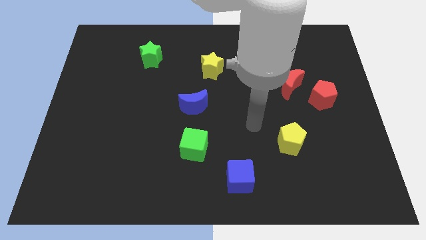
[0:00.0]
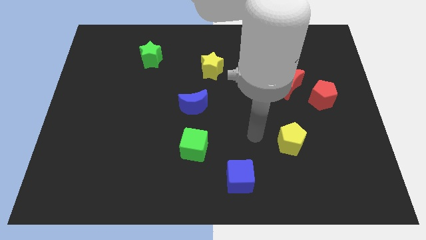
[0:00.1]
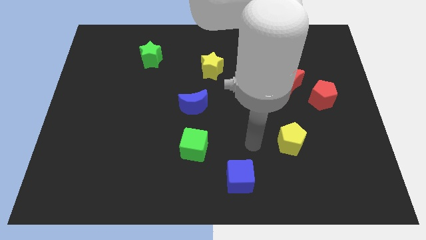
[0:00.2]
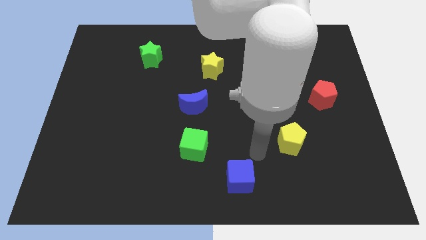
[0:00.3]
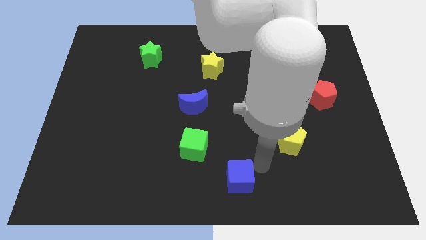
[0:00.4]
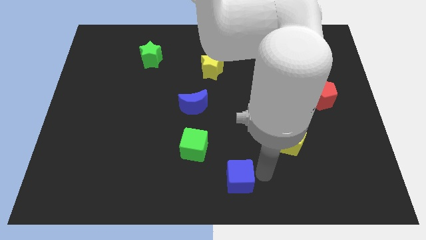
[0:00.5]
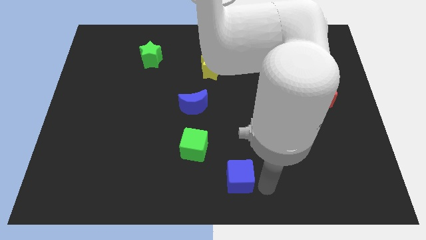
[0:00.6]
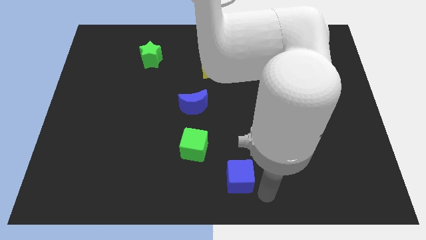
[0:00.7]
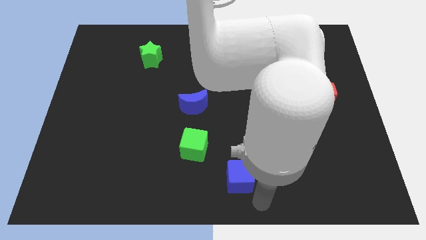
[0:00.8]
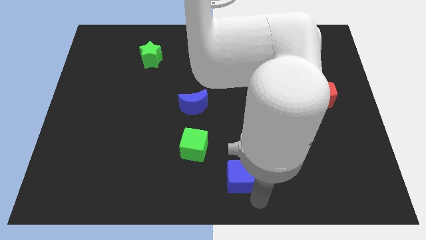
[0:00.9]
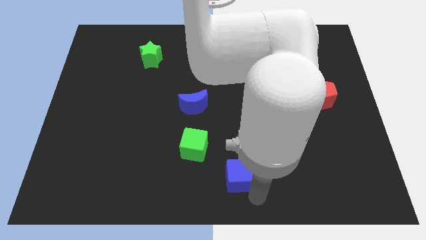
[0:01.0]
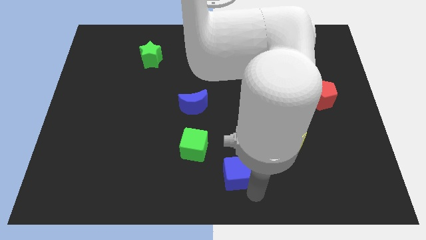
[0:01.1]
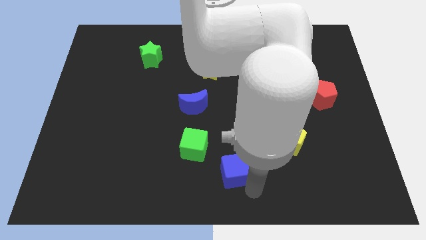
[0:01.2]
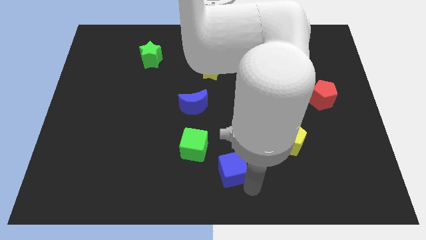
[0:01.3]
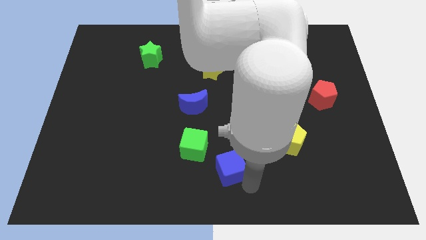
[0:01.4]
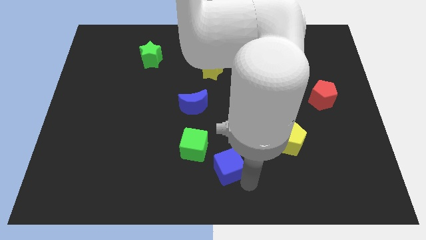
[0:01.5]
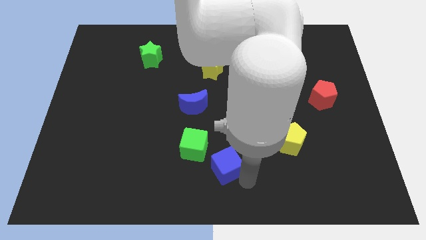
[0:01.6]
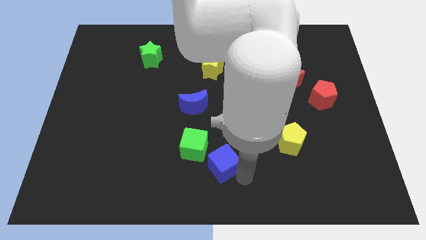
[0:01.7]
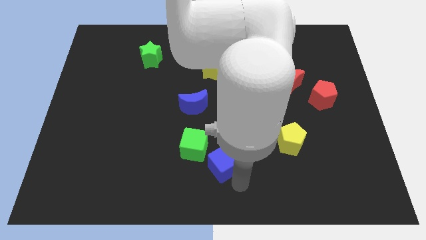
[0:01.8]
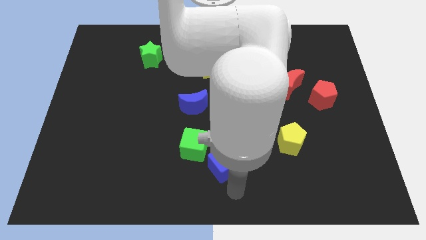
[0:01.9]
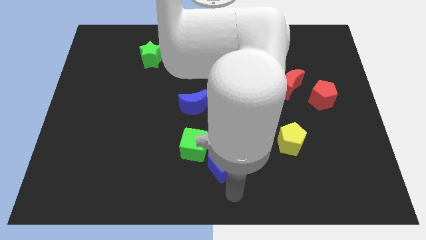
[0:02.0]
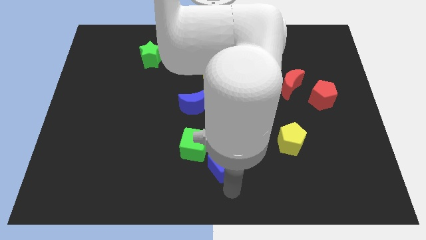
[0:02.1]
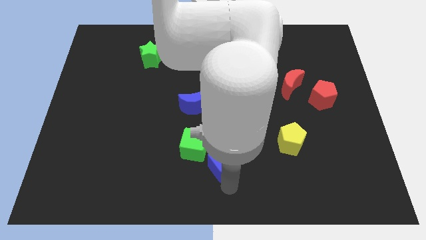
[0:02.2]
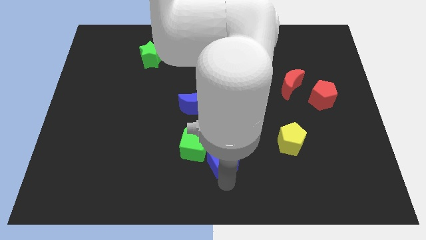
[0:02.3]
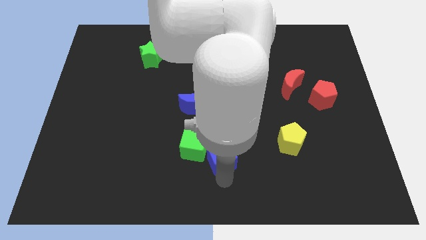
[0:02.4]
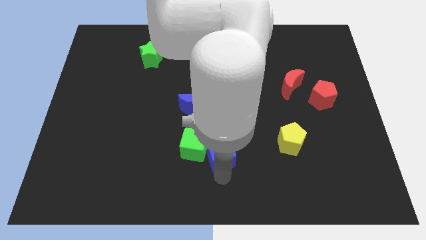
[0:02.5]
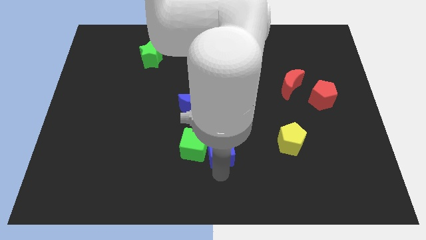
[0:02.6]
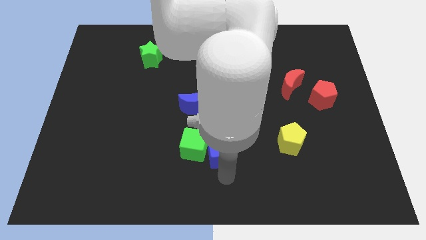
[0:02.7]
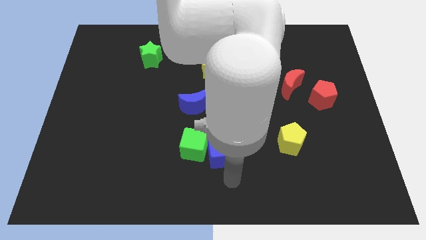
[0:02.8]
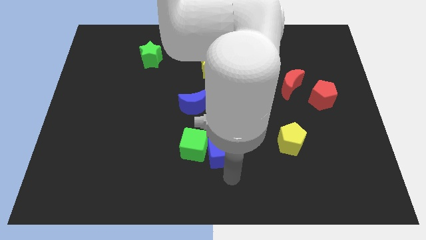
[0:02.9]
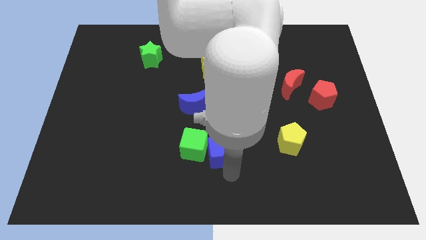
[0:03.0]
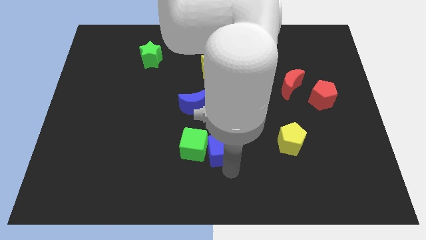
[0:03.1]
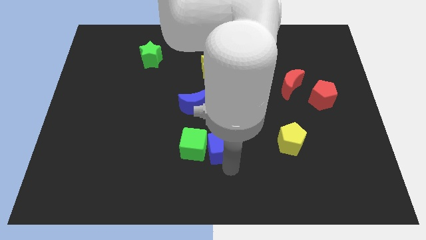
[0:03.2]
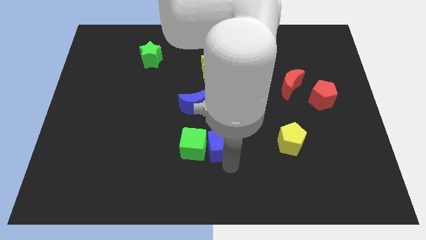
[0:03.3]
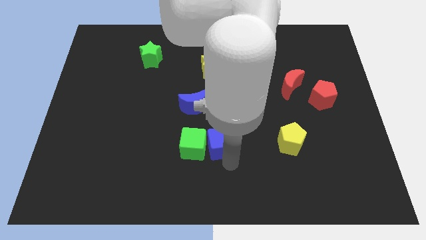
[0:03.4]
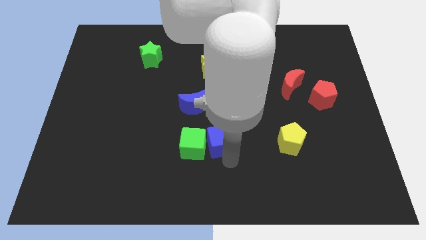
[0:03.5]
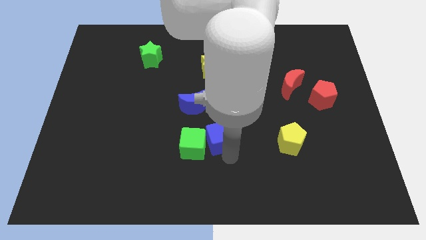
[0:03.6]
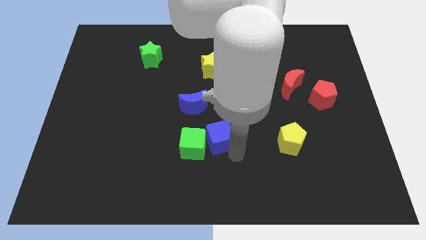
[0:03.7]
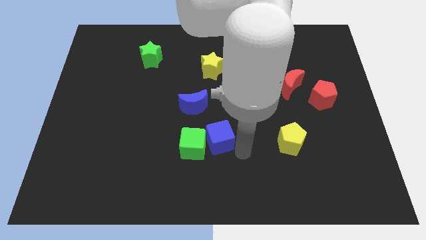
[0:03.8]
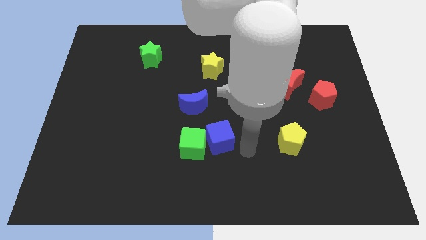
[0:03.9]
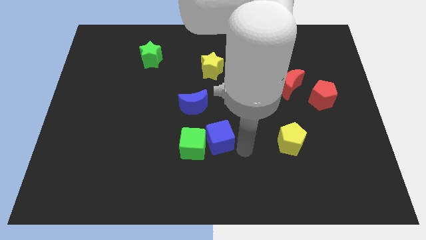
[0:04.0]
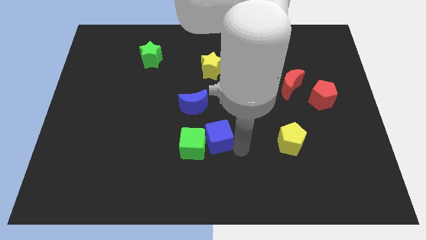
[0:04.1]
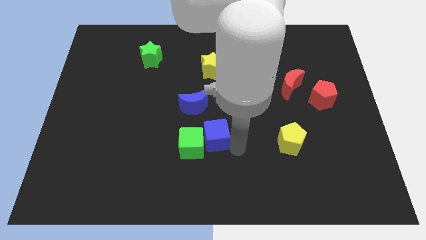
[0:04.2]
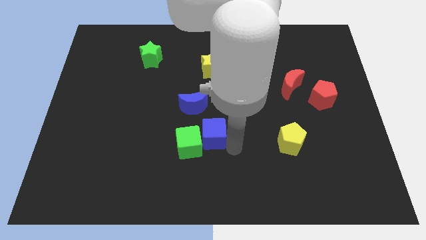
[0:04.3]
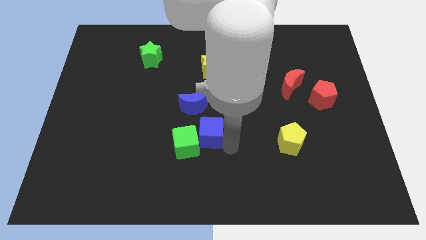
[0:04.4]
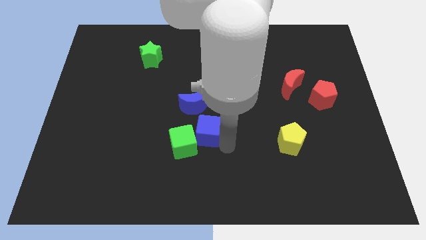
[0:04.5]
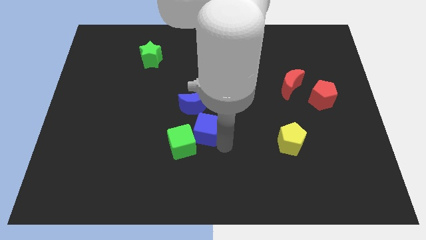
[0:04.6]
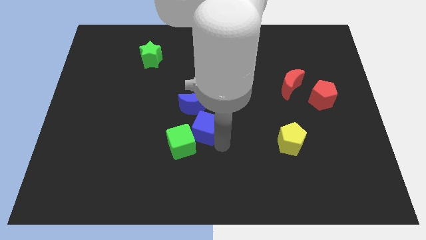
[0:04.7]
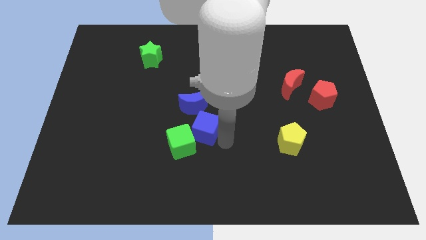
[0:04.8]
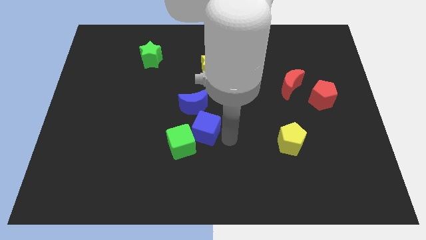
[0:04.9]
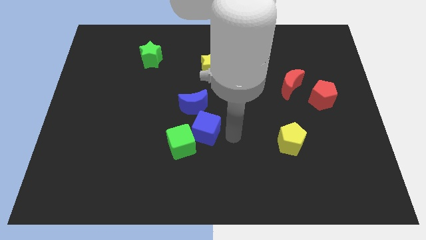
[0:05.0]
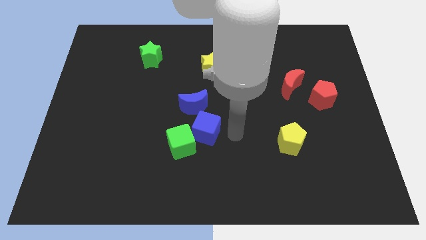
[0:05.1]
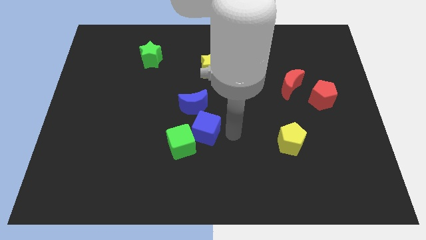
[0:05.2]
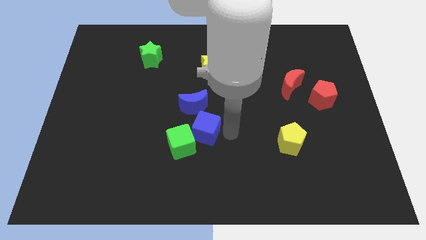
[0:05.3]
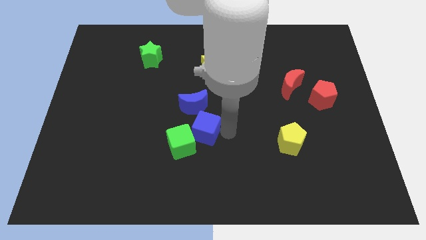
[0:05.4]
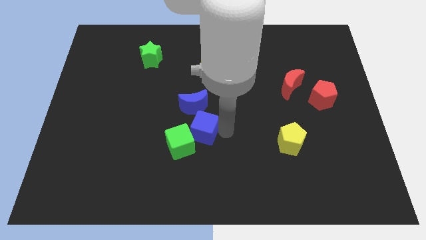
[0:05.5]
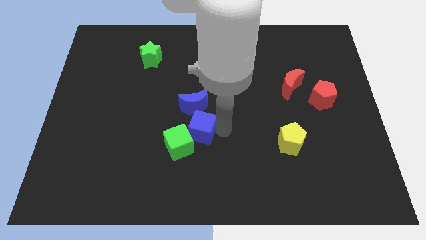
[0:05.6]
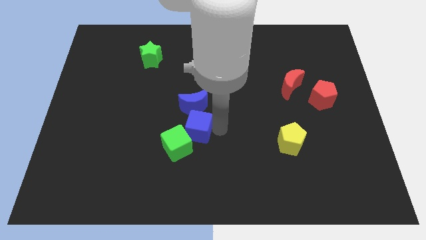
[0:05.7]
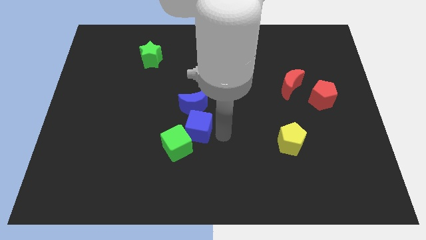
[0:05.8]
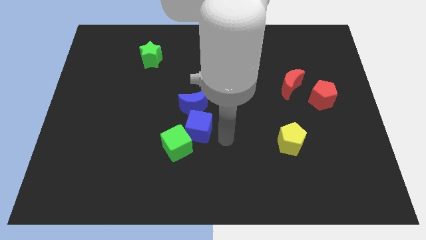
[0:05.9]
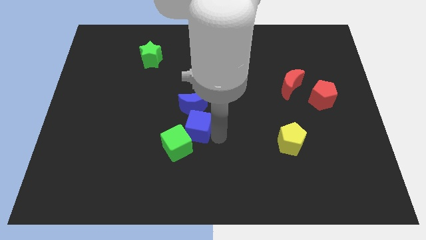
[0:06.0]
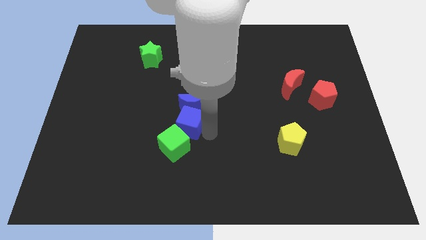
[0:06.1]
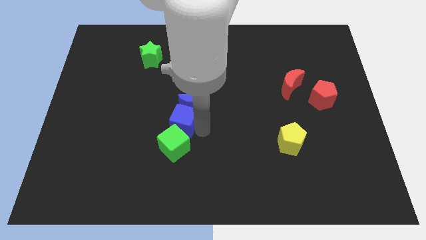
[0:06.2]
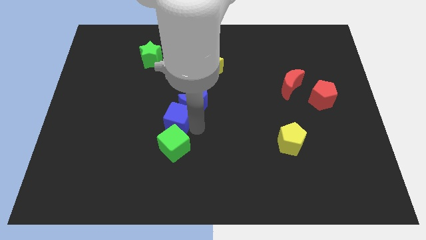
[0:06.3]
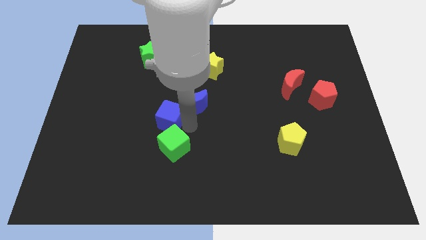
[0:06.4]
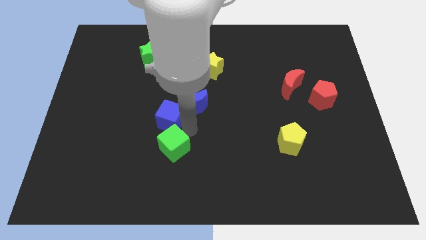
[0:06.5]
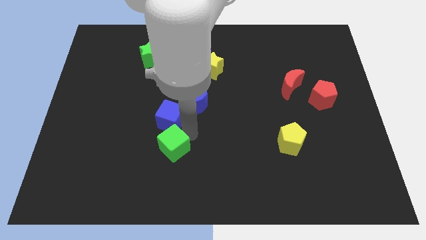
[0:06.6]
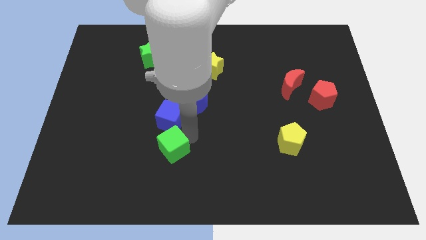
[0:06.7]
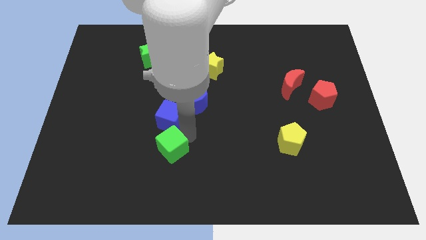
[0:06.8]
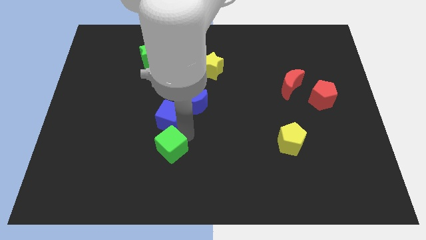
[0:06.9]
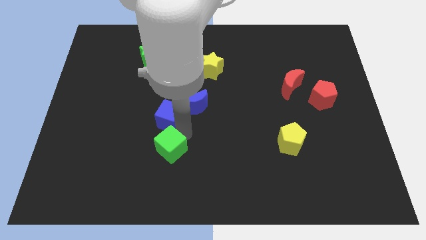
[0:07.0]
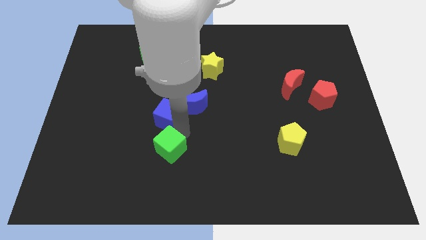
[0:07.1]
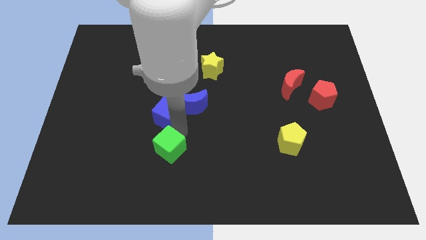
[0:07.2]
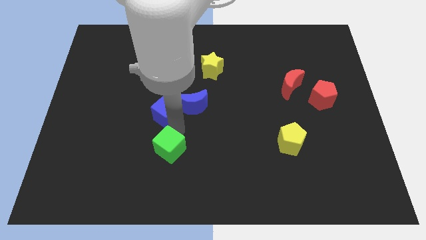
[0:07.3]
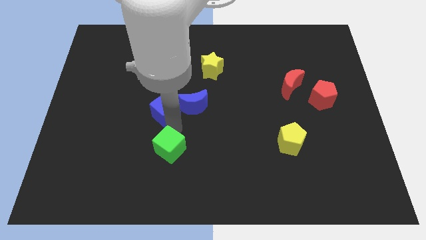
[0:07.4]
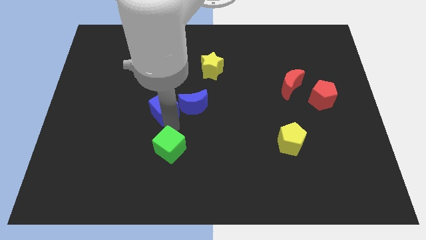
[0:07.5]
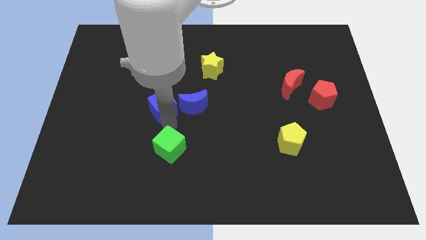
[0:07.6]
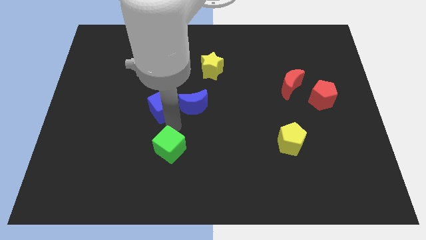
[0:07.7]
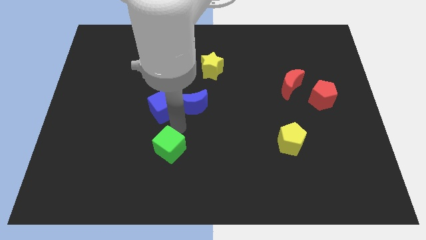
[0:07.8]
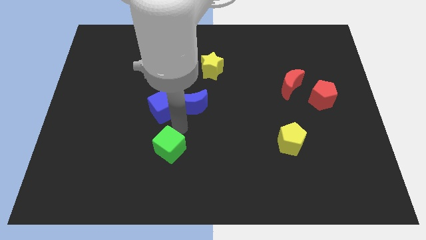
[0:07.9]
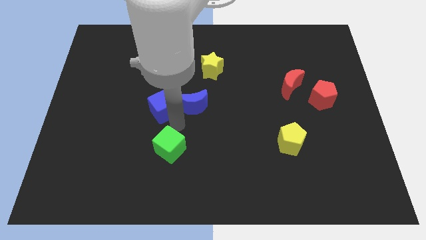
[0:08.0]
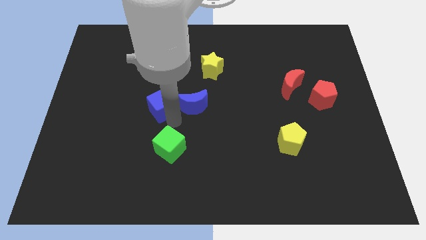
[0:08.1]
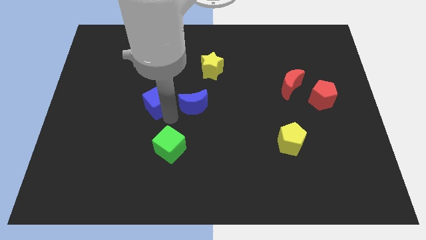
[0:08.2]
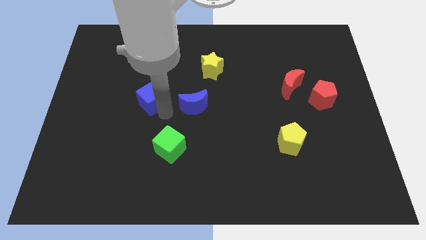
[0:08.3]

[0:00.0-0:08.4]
put the blue cube to the bottom side of the green star
